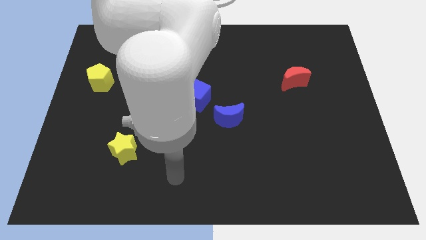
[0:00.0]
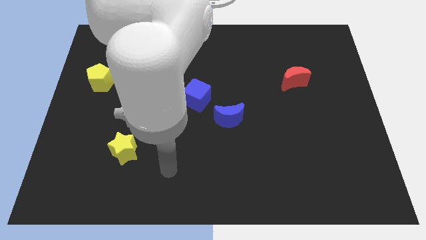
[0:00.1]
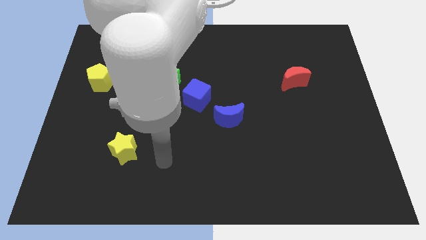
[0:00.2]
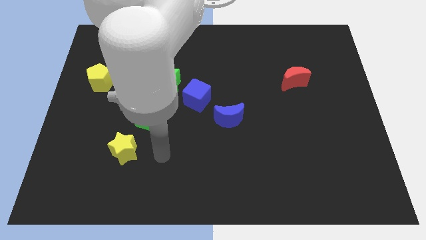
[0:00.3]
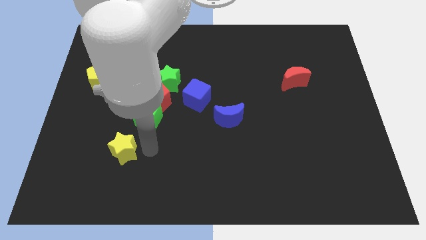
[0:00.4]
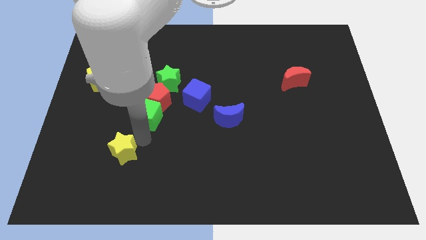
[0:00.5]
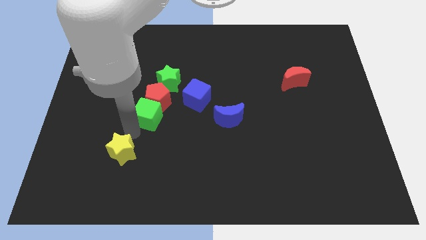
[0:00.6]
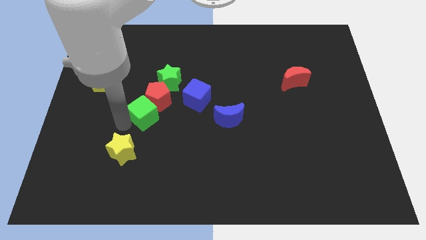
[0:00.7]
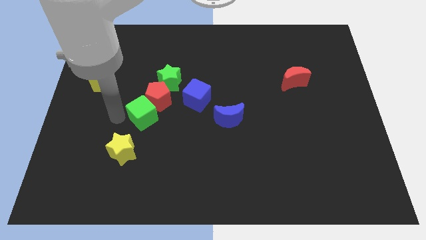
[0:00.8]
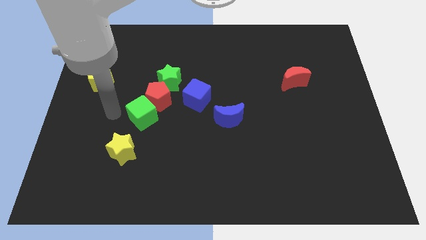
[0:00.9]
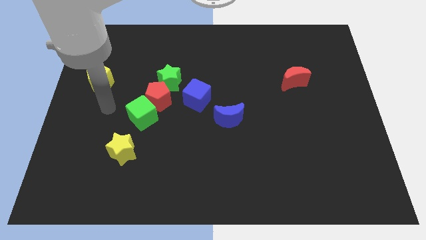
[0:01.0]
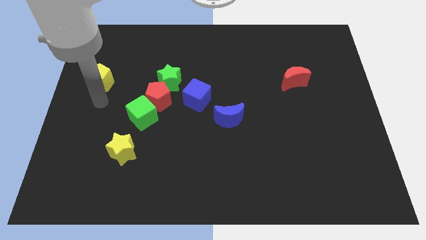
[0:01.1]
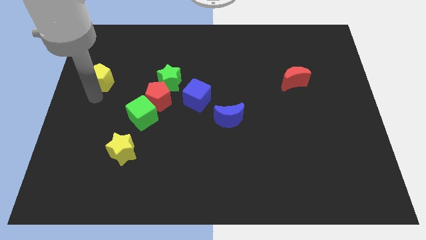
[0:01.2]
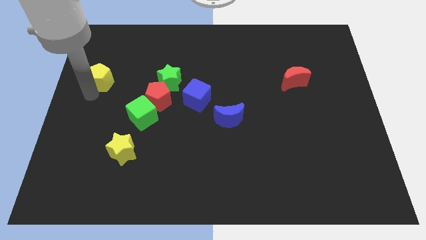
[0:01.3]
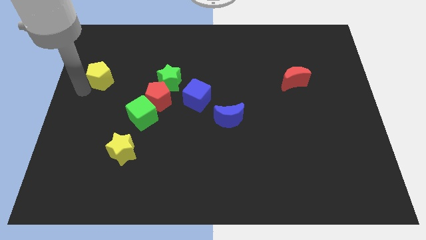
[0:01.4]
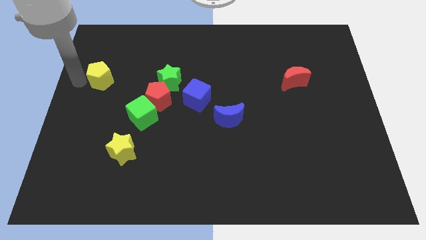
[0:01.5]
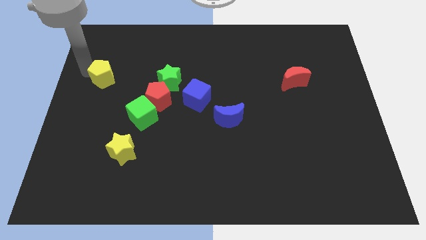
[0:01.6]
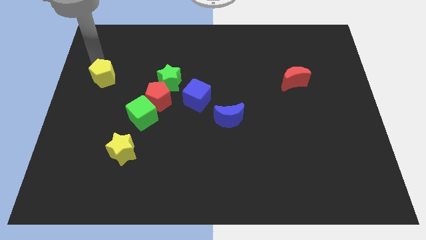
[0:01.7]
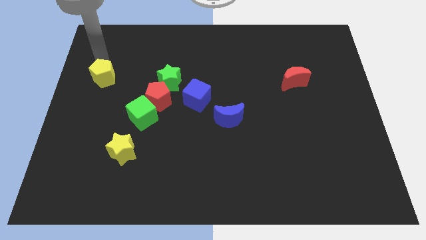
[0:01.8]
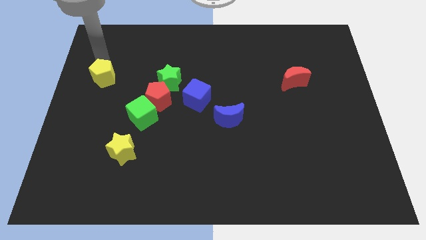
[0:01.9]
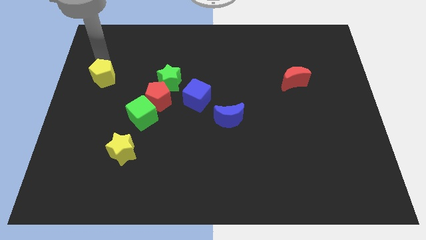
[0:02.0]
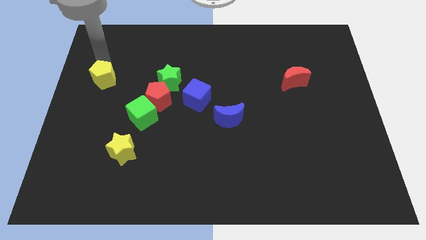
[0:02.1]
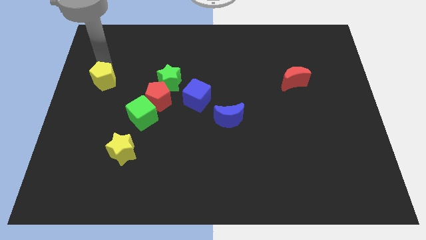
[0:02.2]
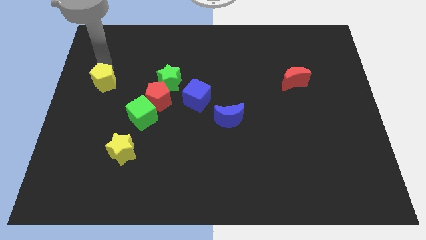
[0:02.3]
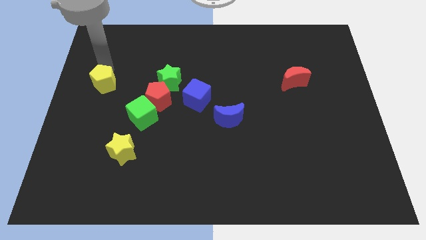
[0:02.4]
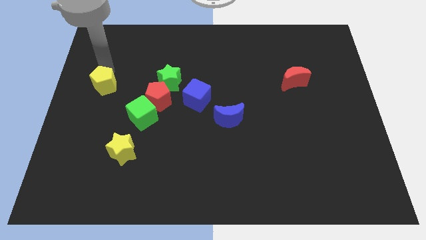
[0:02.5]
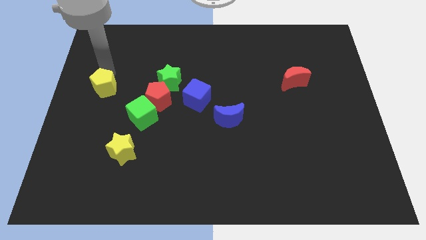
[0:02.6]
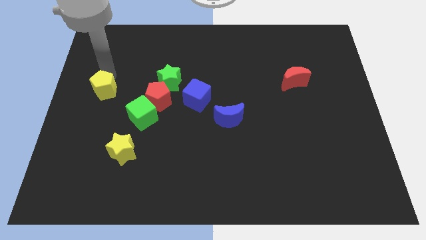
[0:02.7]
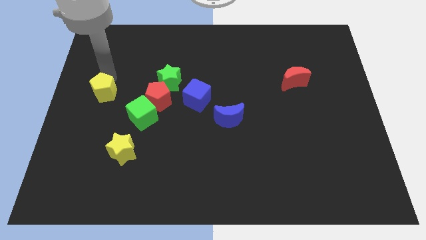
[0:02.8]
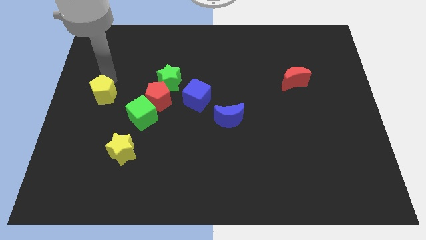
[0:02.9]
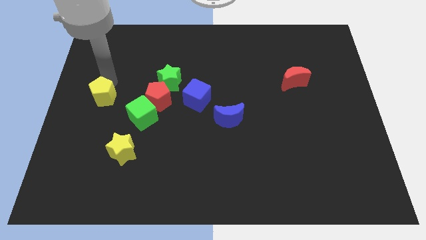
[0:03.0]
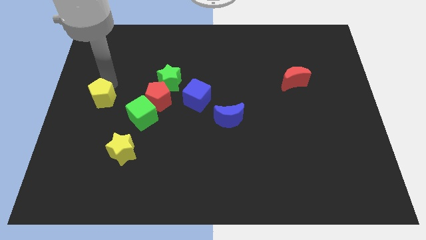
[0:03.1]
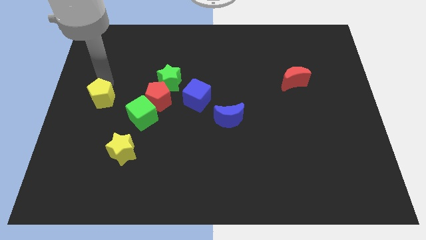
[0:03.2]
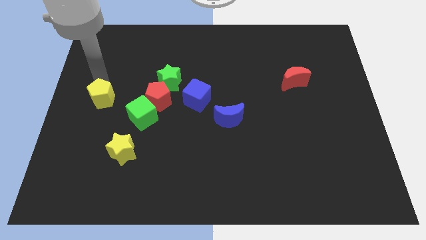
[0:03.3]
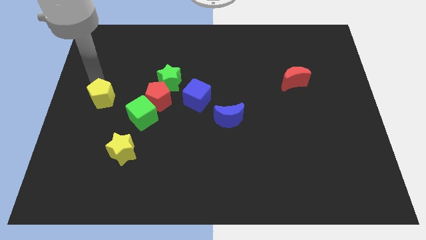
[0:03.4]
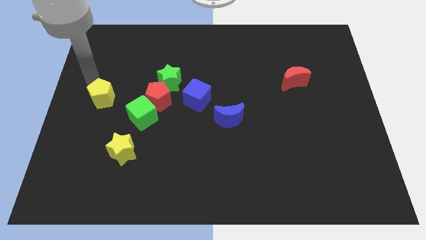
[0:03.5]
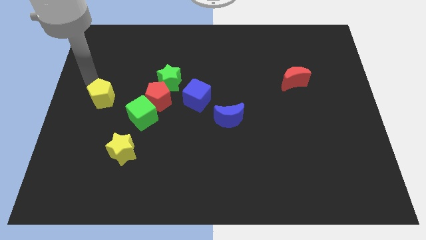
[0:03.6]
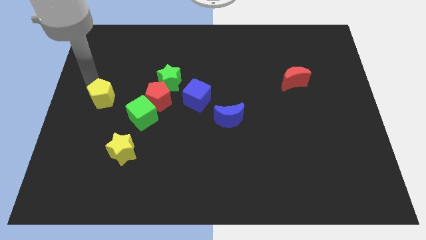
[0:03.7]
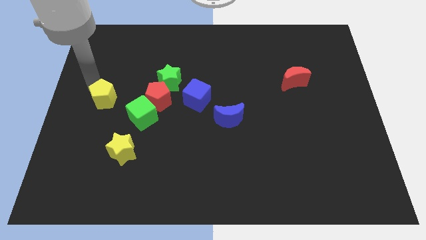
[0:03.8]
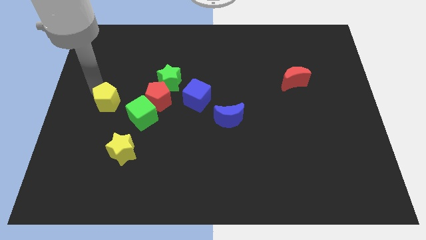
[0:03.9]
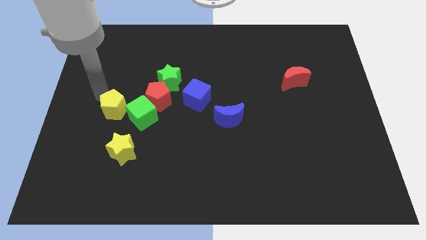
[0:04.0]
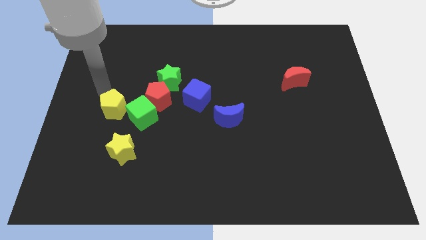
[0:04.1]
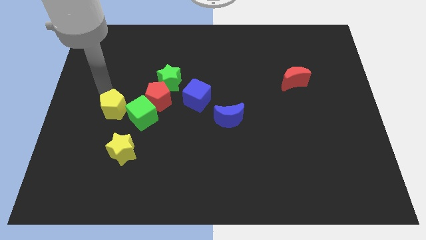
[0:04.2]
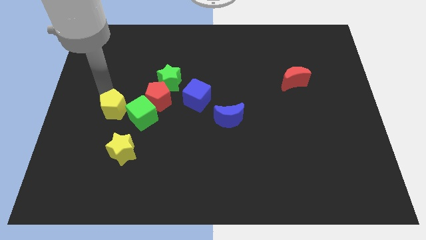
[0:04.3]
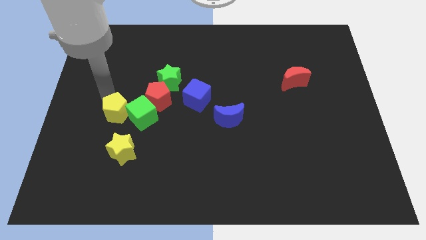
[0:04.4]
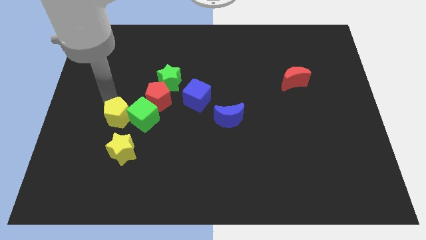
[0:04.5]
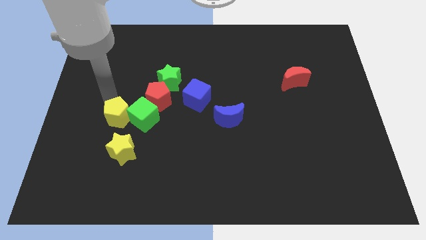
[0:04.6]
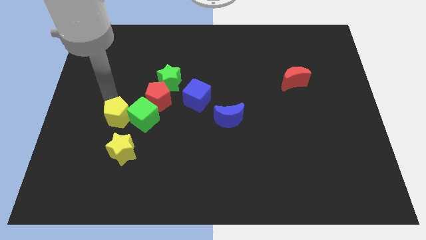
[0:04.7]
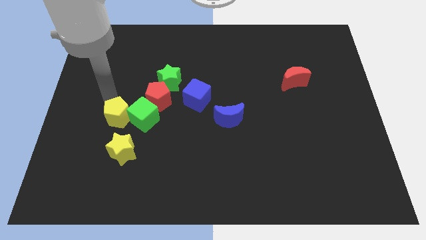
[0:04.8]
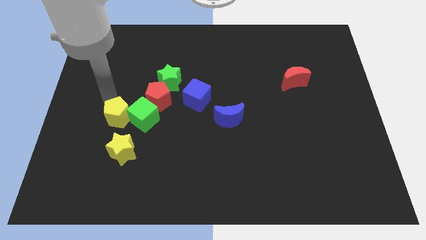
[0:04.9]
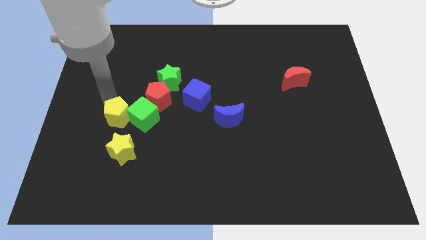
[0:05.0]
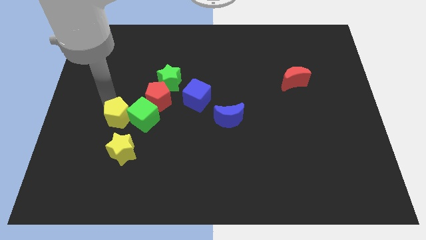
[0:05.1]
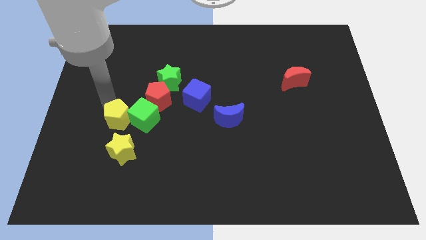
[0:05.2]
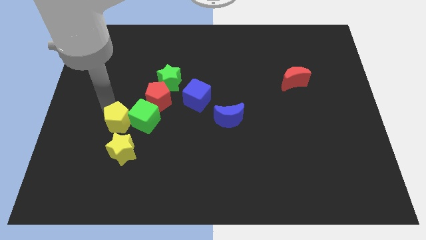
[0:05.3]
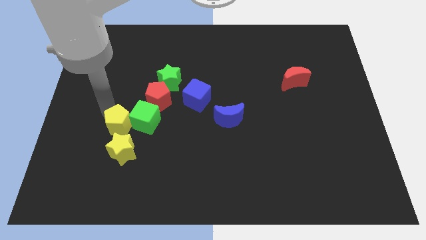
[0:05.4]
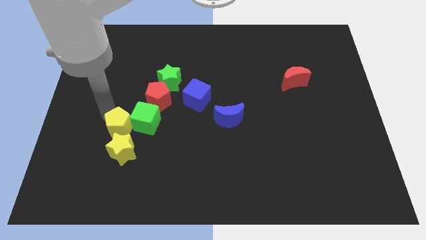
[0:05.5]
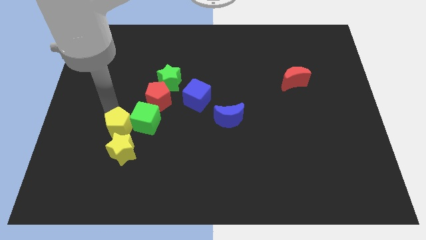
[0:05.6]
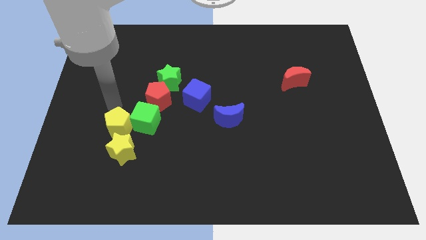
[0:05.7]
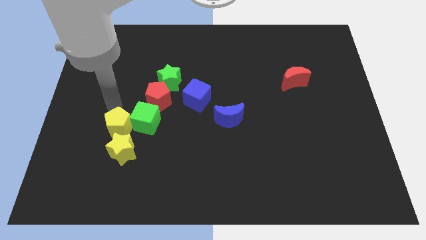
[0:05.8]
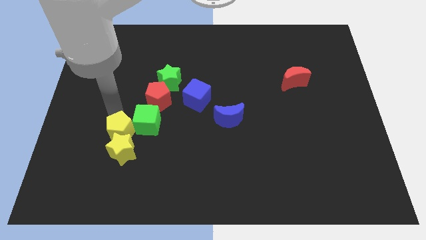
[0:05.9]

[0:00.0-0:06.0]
put the yellow pentagon close to the yellow star

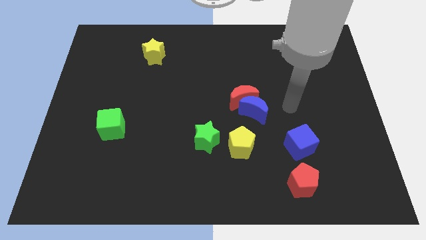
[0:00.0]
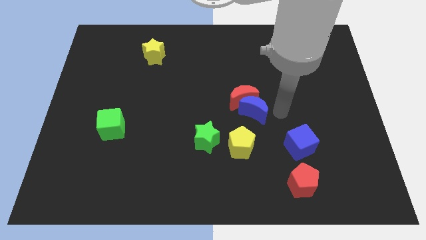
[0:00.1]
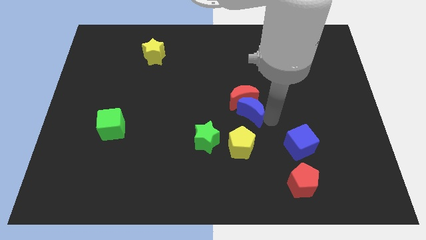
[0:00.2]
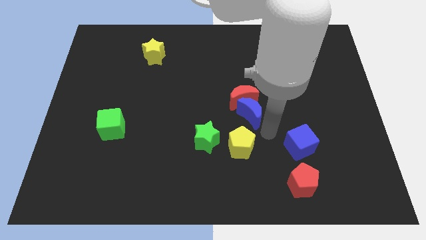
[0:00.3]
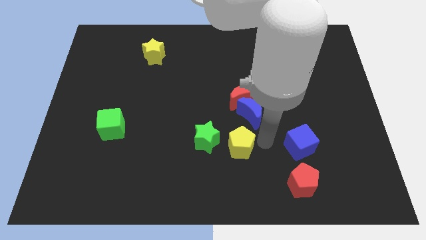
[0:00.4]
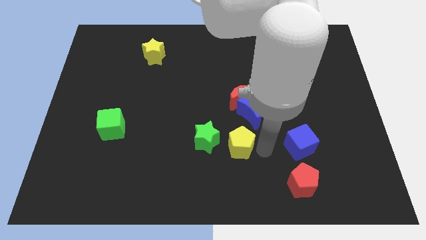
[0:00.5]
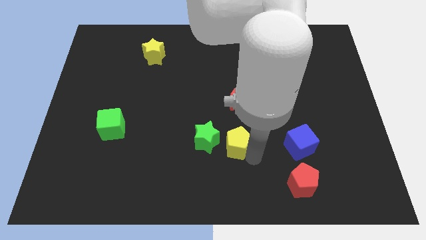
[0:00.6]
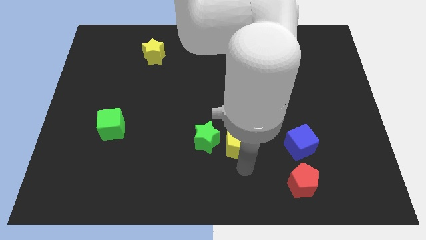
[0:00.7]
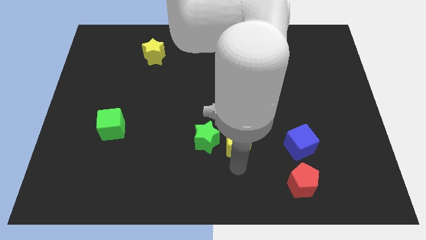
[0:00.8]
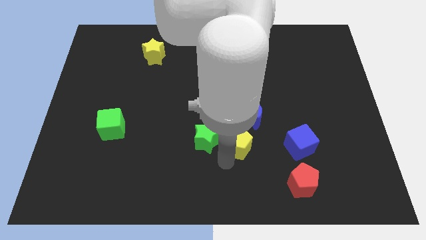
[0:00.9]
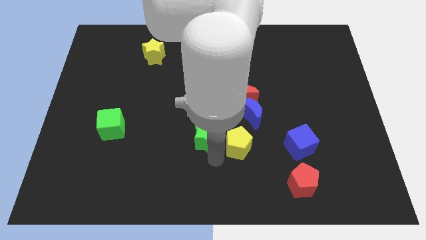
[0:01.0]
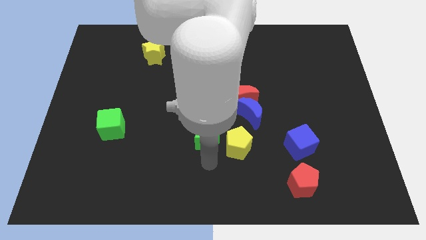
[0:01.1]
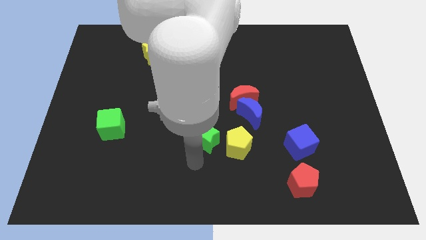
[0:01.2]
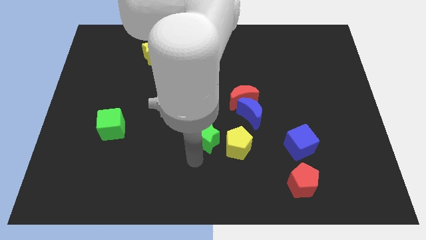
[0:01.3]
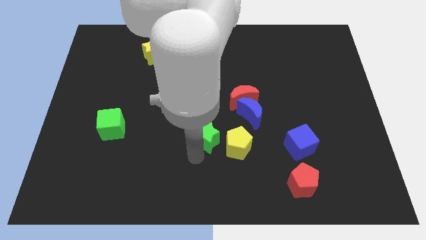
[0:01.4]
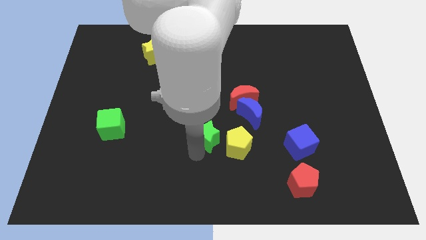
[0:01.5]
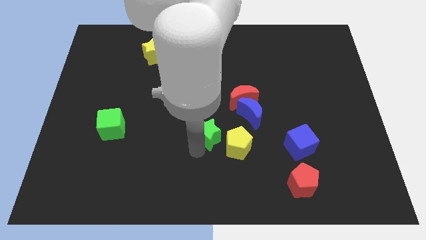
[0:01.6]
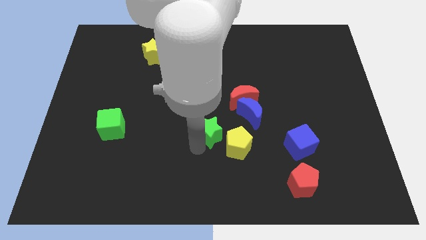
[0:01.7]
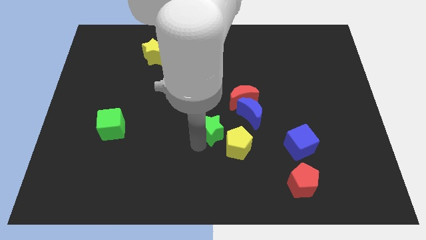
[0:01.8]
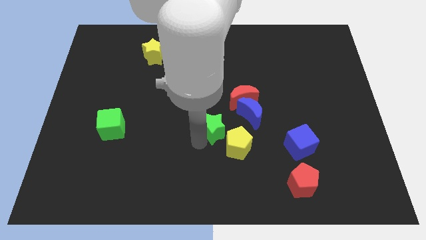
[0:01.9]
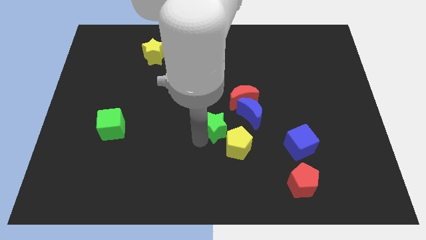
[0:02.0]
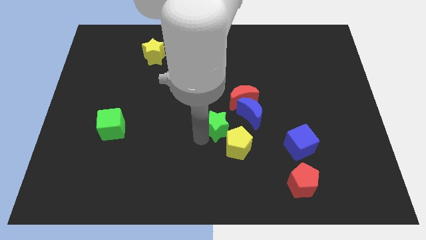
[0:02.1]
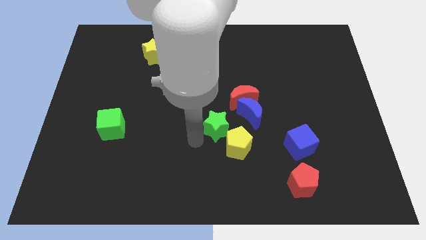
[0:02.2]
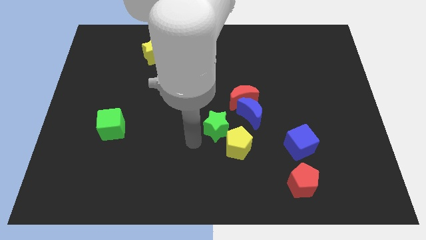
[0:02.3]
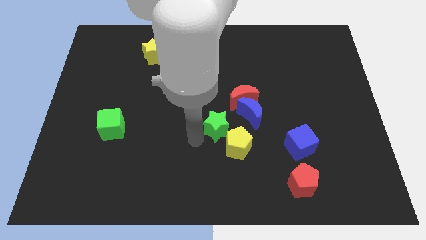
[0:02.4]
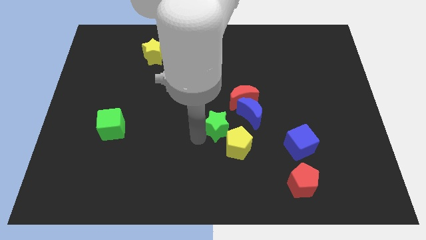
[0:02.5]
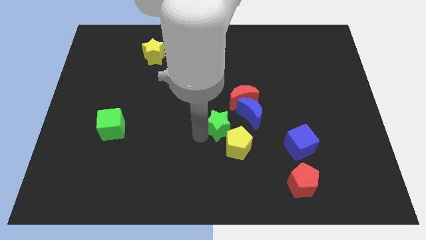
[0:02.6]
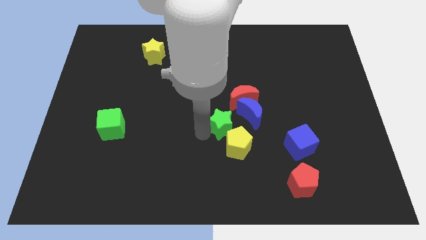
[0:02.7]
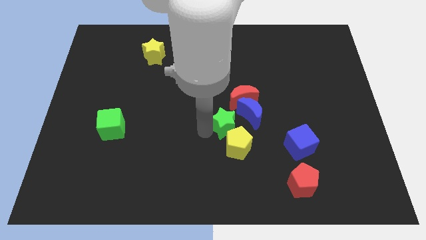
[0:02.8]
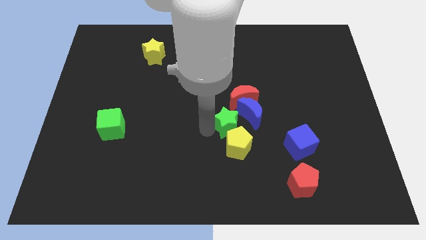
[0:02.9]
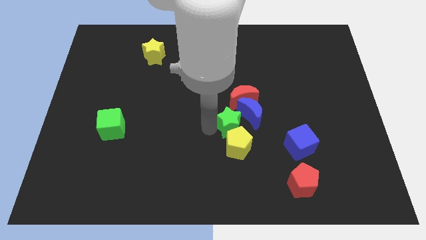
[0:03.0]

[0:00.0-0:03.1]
move the green star close to the blue moon
